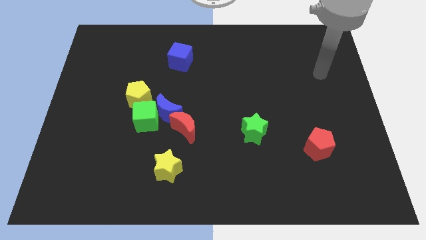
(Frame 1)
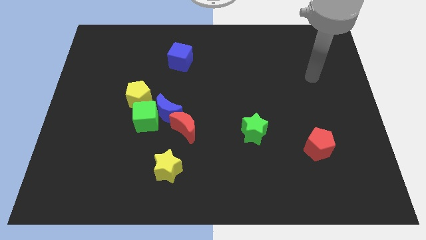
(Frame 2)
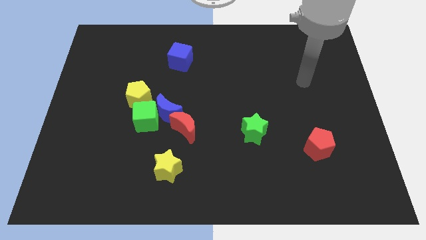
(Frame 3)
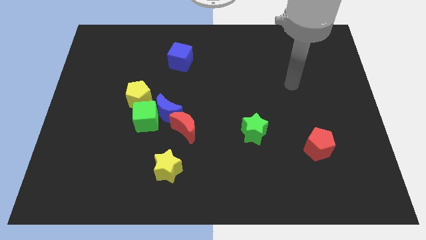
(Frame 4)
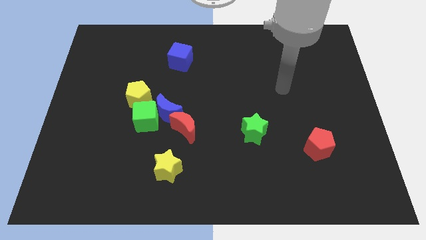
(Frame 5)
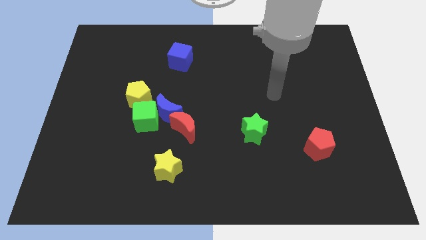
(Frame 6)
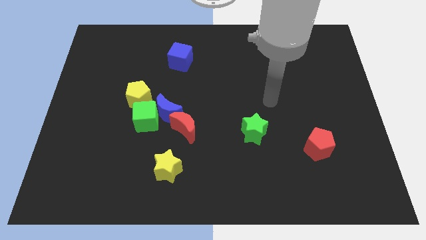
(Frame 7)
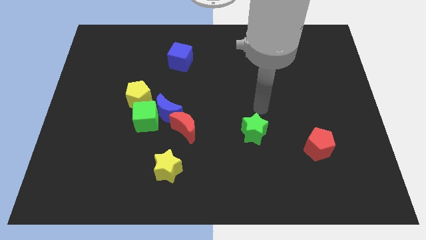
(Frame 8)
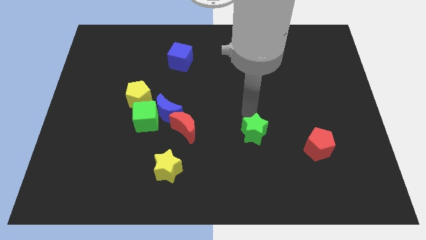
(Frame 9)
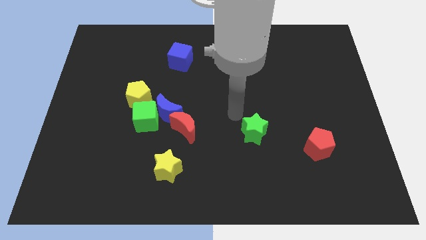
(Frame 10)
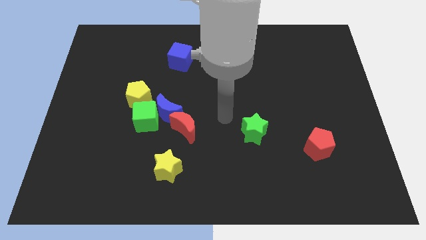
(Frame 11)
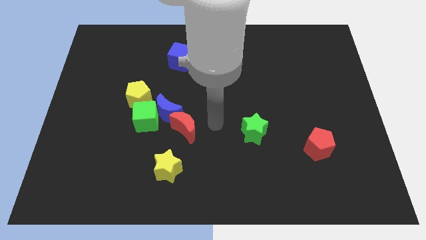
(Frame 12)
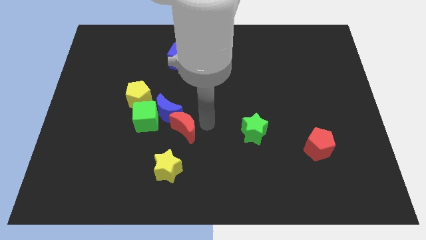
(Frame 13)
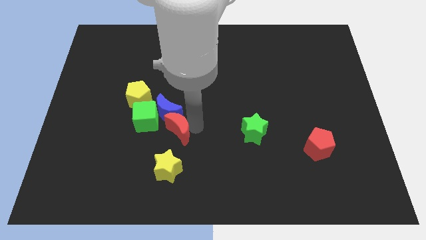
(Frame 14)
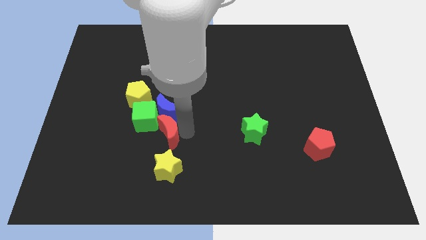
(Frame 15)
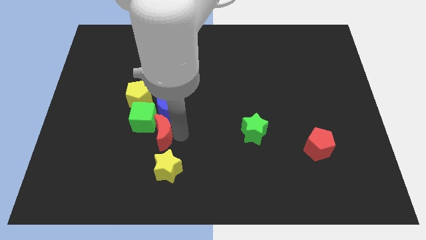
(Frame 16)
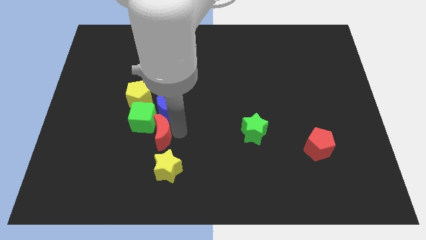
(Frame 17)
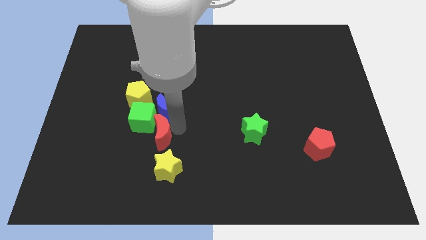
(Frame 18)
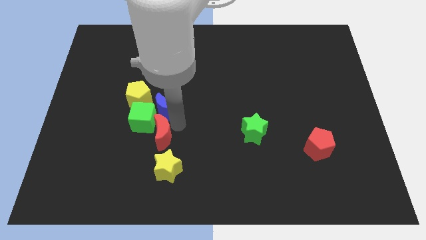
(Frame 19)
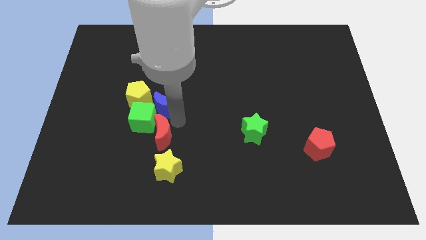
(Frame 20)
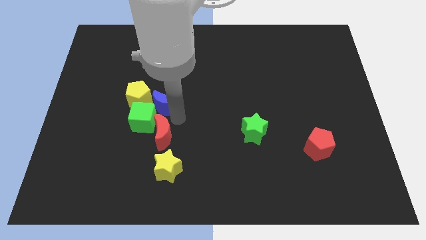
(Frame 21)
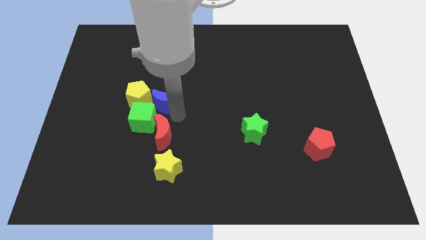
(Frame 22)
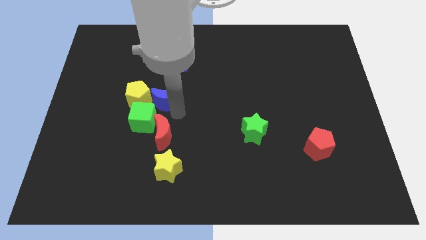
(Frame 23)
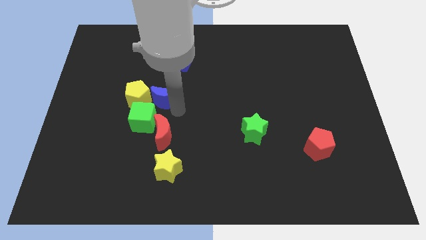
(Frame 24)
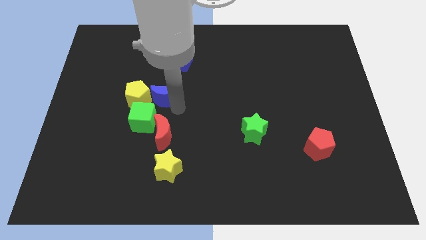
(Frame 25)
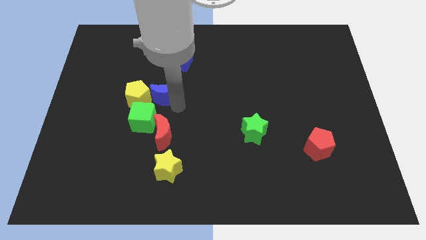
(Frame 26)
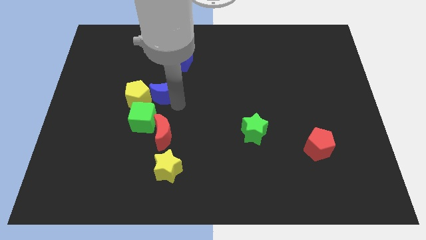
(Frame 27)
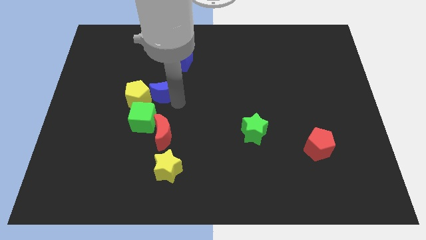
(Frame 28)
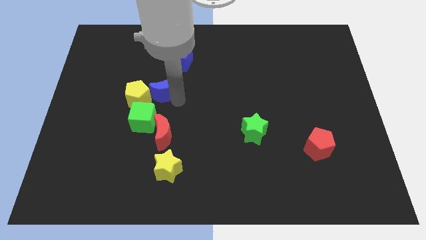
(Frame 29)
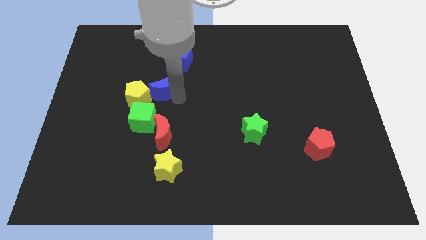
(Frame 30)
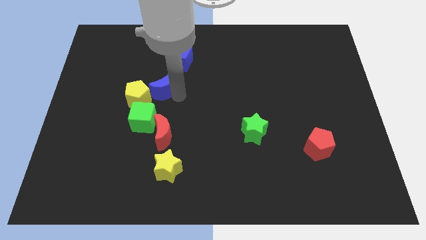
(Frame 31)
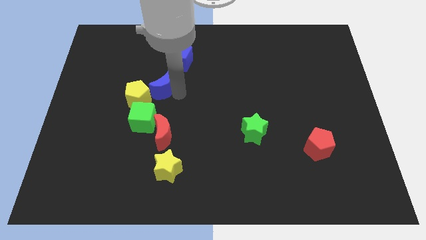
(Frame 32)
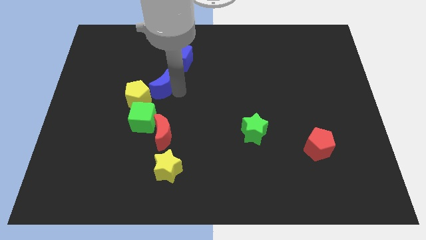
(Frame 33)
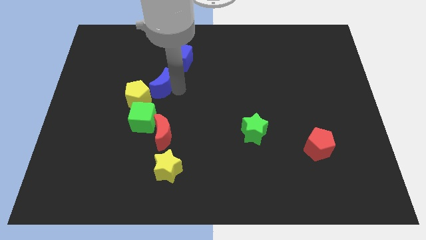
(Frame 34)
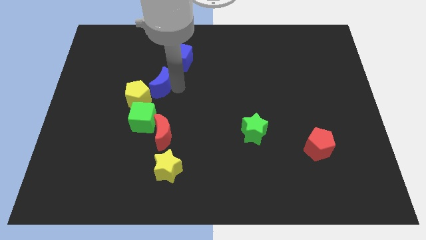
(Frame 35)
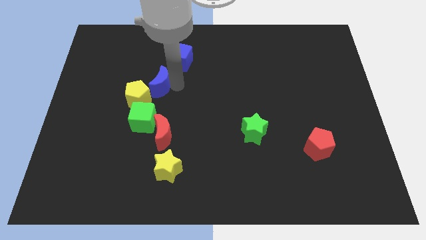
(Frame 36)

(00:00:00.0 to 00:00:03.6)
move the blue moon up and to the left a little bit

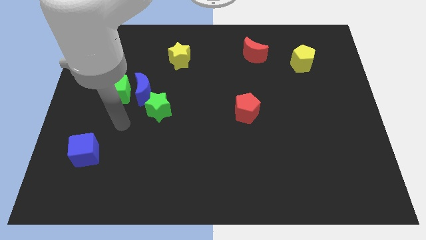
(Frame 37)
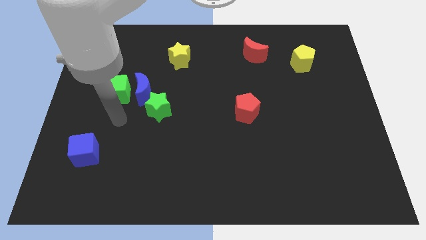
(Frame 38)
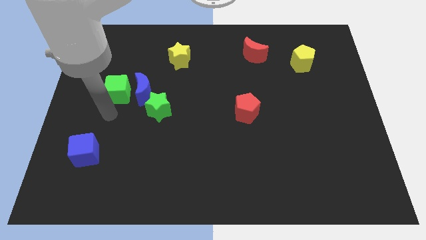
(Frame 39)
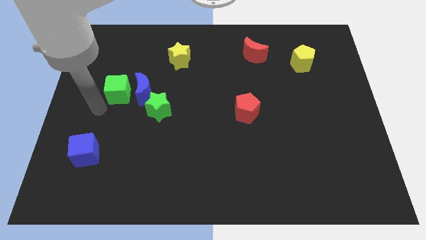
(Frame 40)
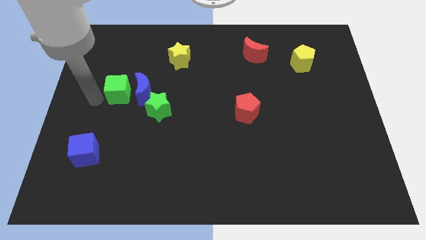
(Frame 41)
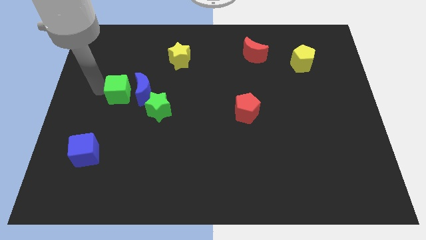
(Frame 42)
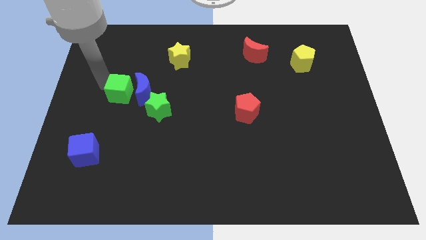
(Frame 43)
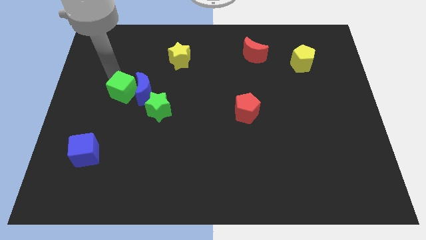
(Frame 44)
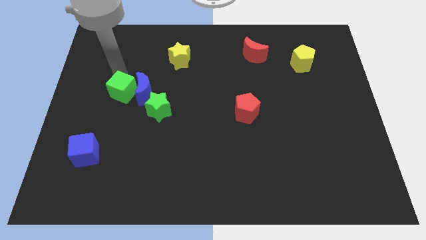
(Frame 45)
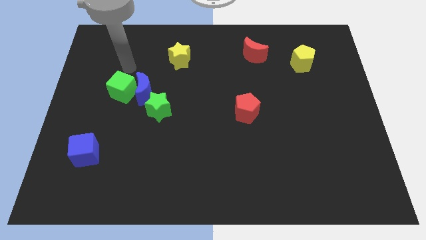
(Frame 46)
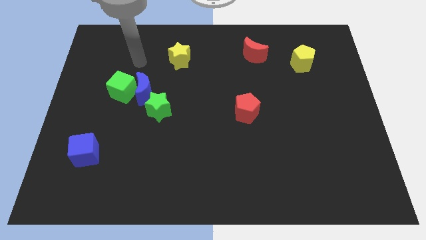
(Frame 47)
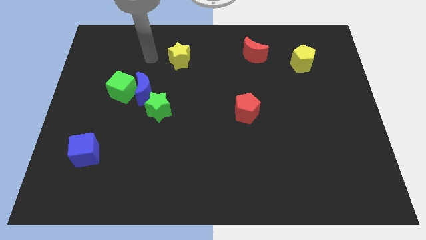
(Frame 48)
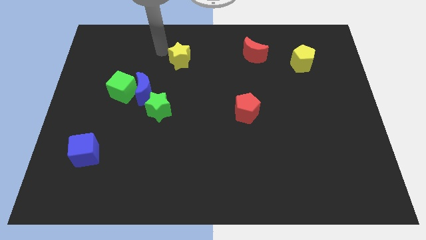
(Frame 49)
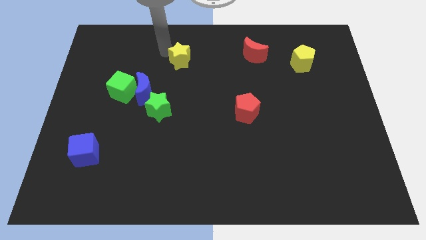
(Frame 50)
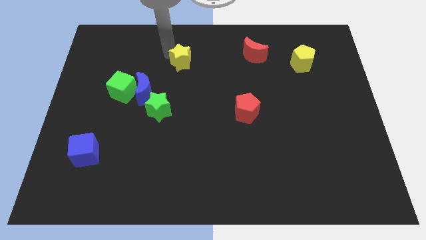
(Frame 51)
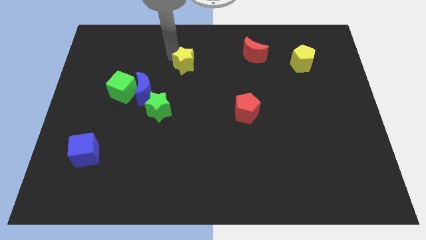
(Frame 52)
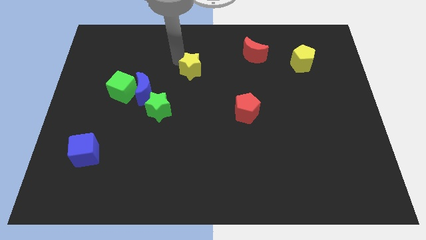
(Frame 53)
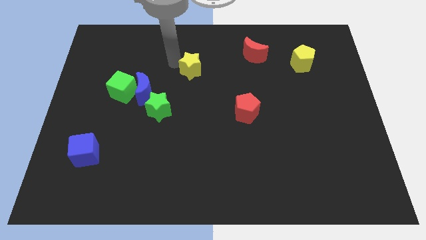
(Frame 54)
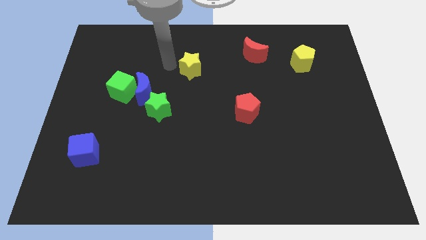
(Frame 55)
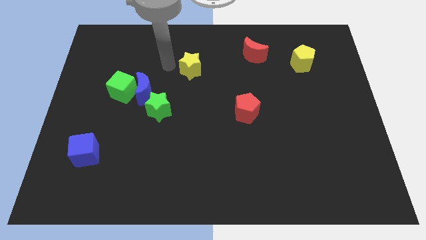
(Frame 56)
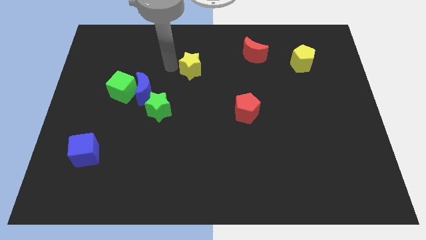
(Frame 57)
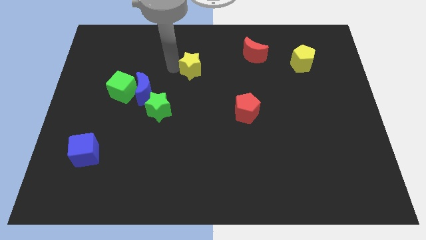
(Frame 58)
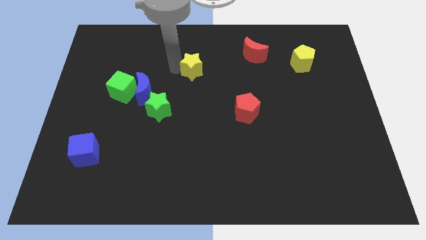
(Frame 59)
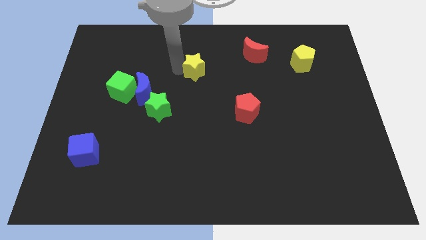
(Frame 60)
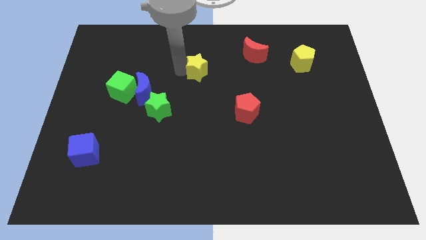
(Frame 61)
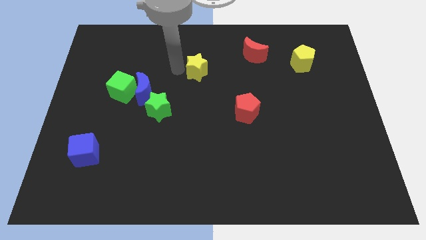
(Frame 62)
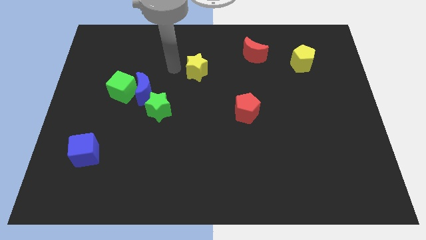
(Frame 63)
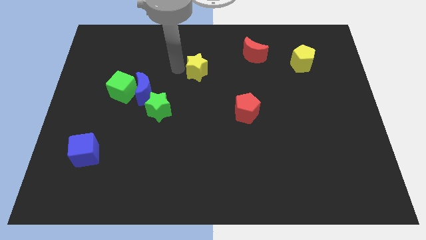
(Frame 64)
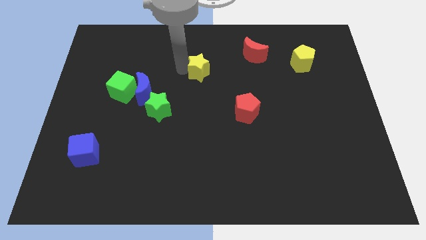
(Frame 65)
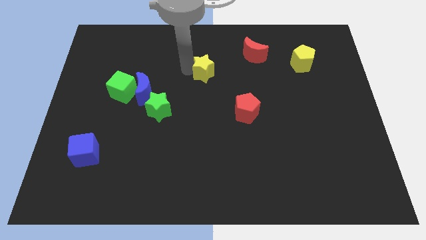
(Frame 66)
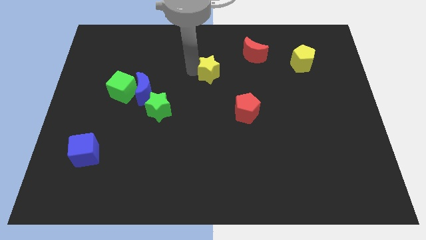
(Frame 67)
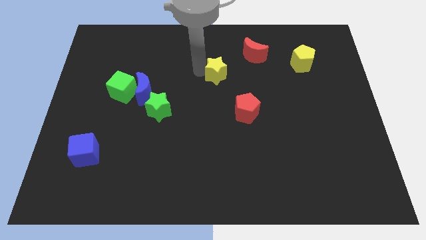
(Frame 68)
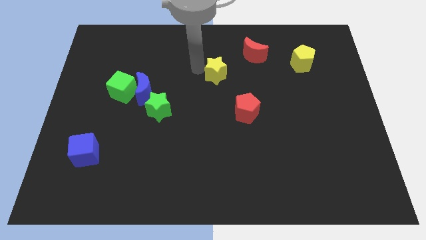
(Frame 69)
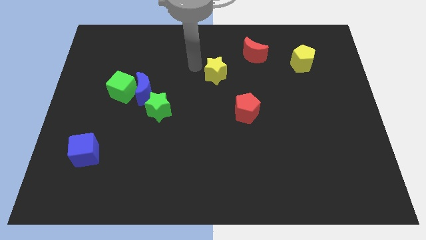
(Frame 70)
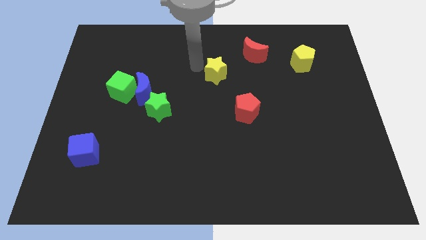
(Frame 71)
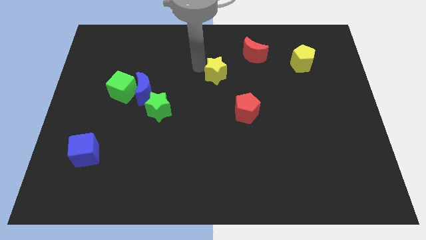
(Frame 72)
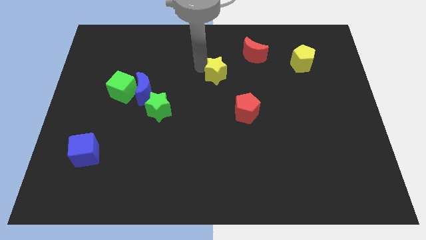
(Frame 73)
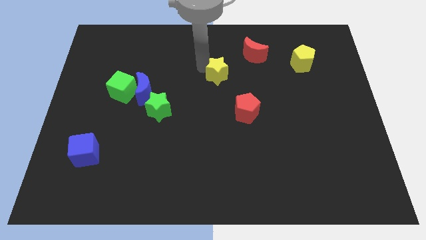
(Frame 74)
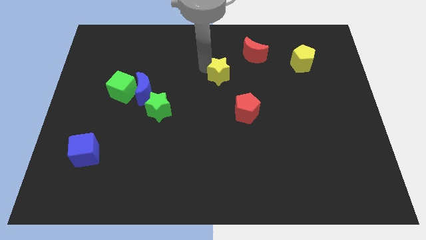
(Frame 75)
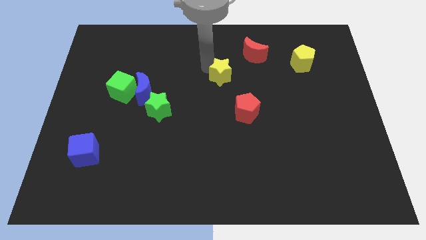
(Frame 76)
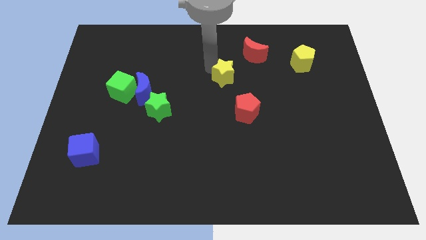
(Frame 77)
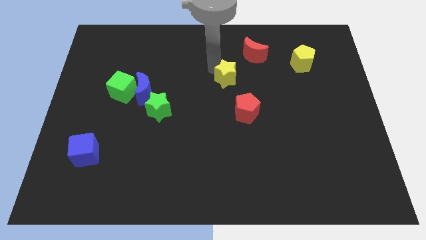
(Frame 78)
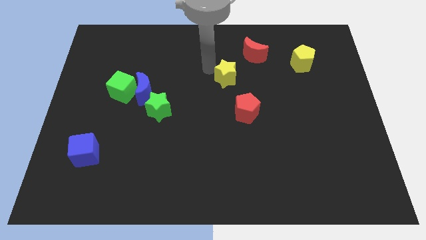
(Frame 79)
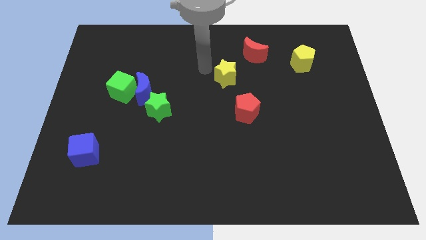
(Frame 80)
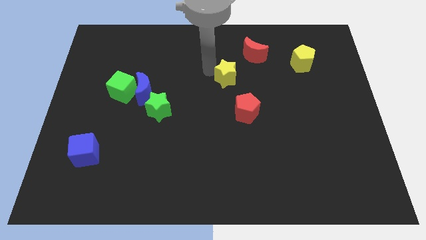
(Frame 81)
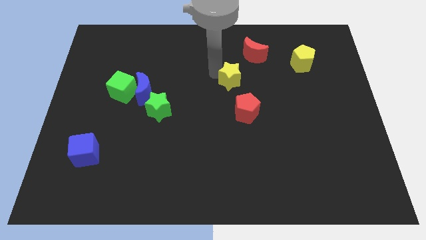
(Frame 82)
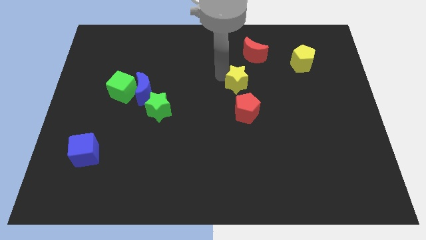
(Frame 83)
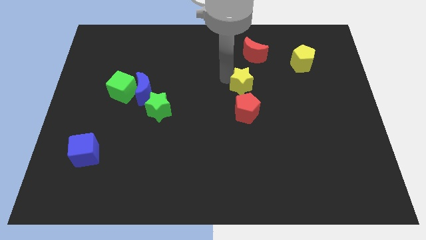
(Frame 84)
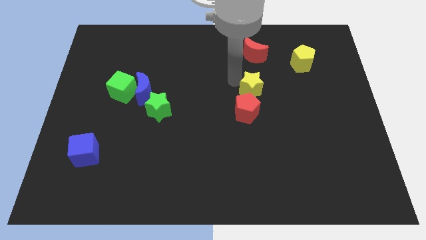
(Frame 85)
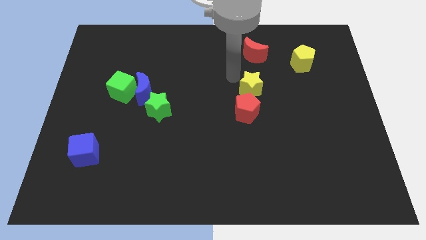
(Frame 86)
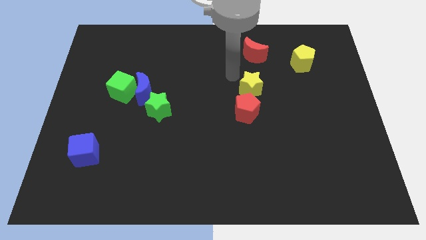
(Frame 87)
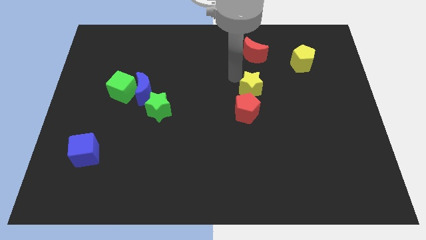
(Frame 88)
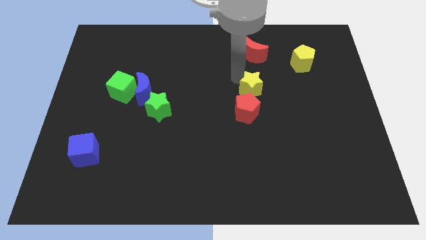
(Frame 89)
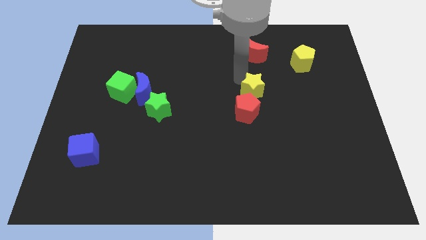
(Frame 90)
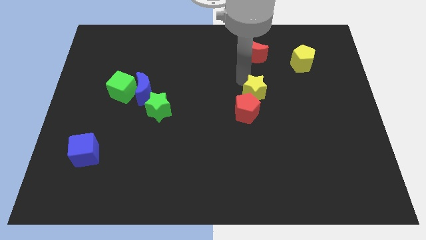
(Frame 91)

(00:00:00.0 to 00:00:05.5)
slide the yellow star downwards and then right
